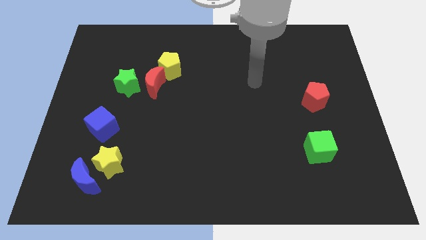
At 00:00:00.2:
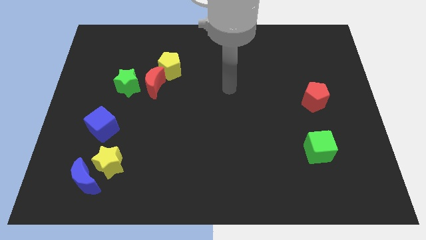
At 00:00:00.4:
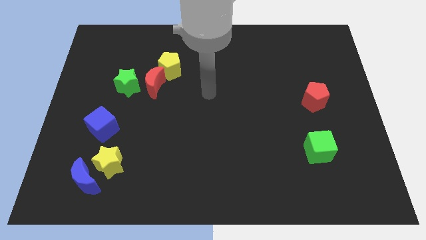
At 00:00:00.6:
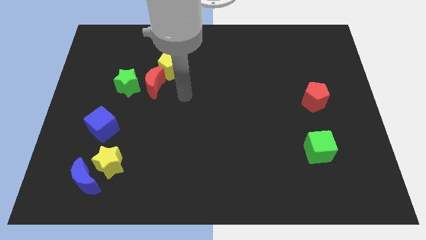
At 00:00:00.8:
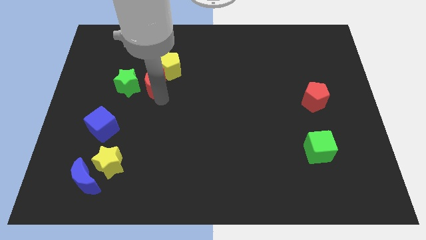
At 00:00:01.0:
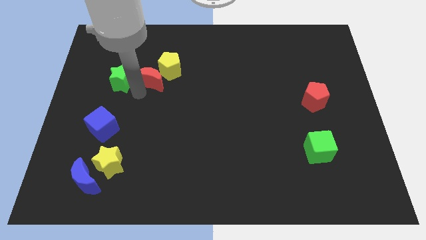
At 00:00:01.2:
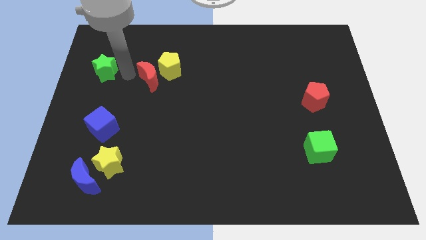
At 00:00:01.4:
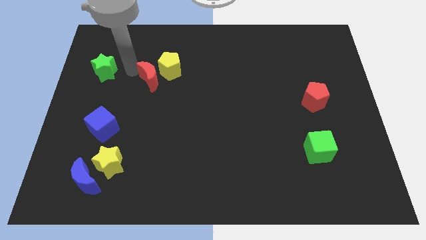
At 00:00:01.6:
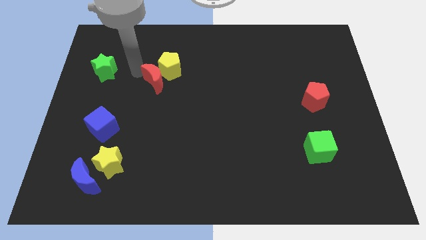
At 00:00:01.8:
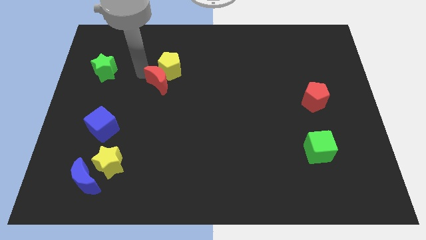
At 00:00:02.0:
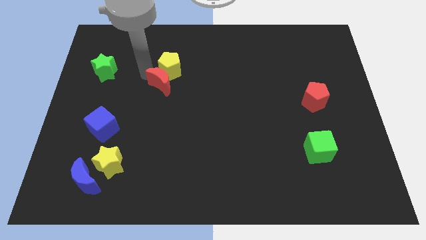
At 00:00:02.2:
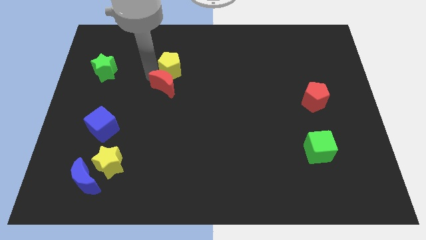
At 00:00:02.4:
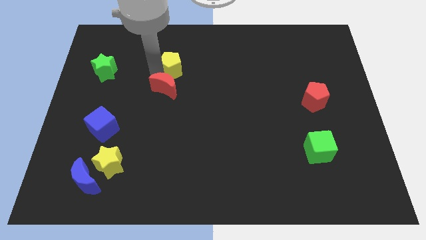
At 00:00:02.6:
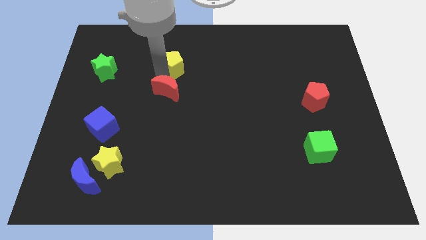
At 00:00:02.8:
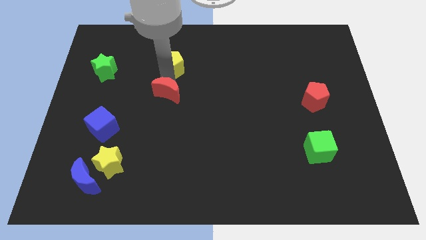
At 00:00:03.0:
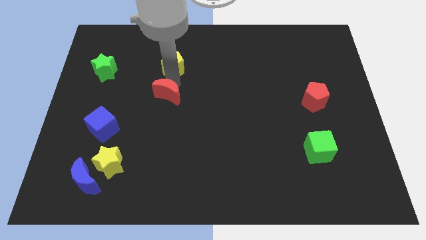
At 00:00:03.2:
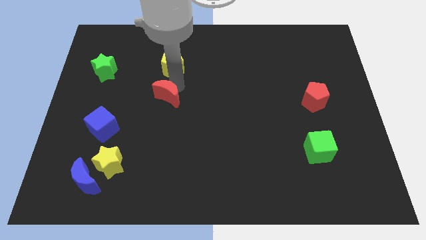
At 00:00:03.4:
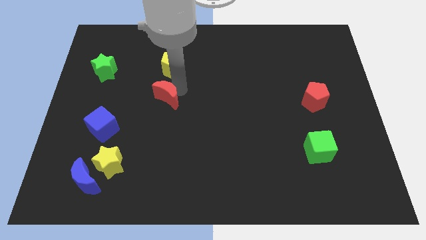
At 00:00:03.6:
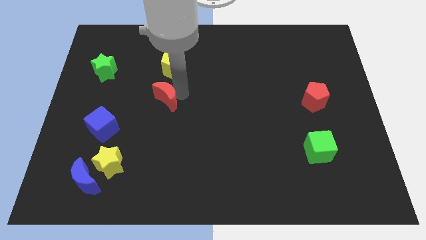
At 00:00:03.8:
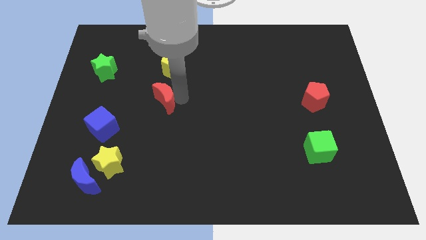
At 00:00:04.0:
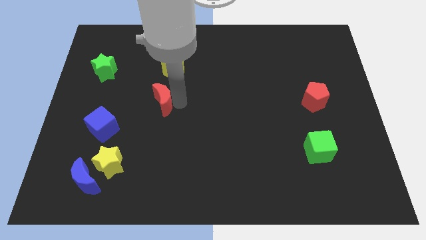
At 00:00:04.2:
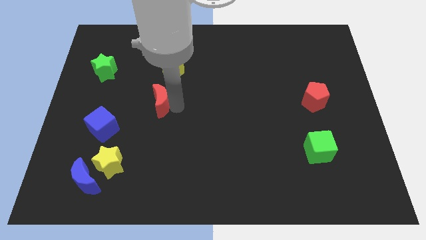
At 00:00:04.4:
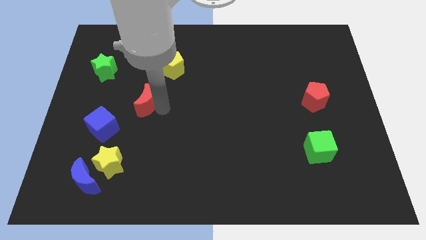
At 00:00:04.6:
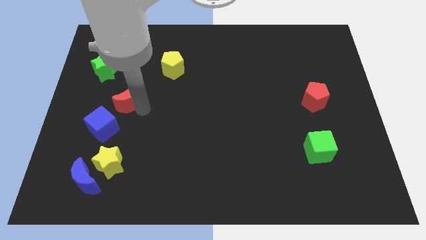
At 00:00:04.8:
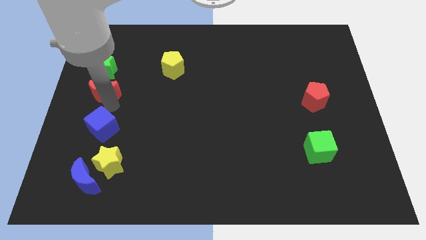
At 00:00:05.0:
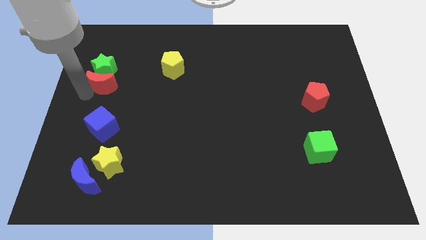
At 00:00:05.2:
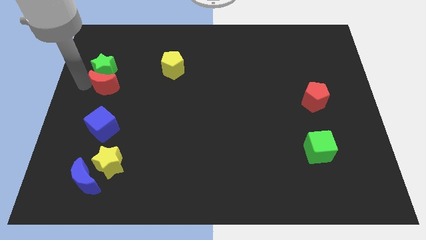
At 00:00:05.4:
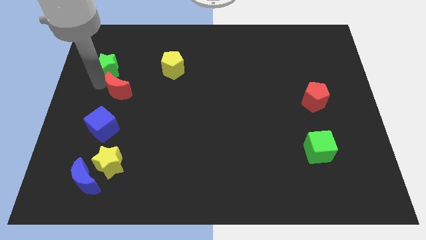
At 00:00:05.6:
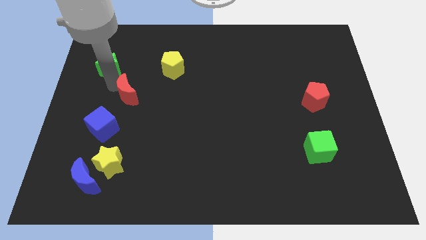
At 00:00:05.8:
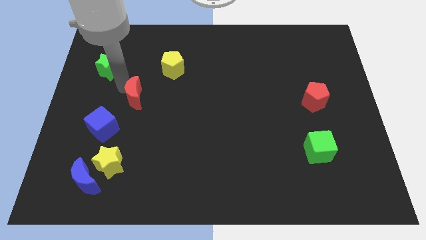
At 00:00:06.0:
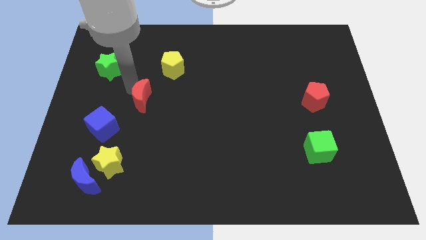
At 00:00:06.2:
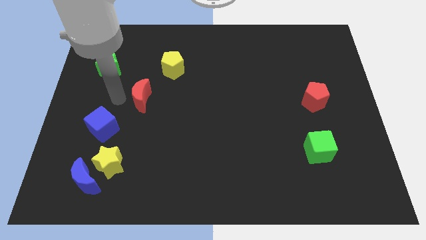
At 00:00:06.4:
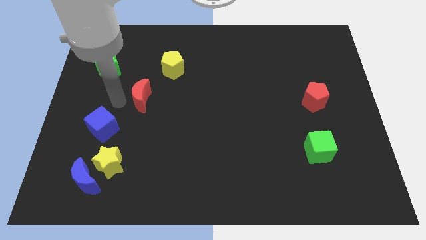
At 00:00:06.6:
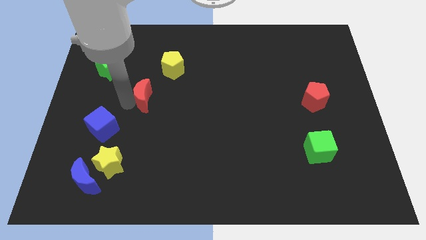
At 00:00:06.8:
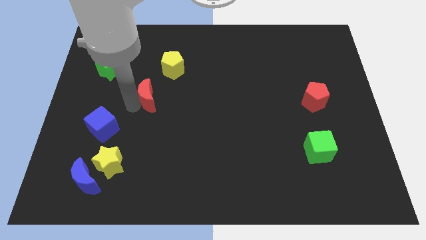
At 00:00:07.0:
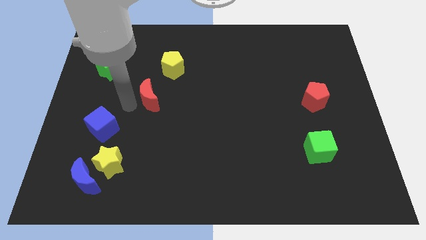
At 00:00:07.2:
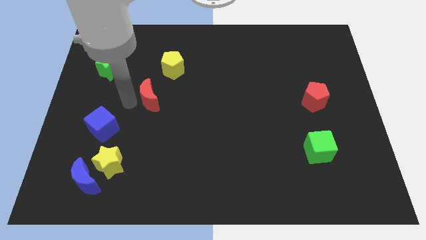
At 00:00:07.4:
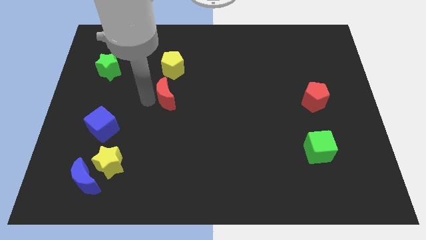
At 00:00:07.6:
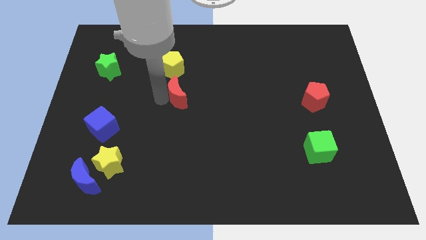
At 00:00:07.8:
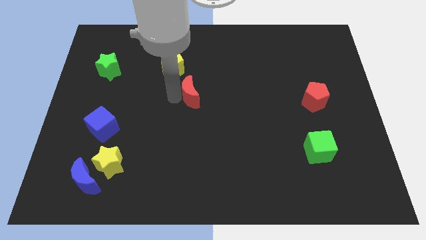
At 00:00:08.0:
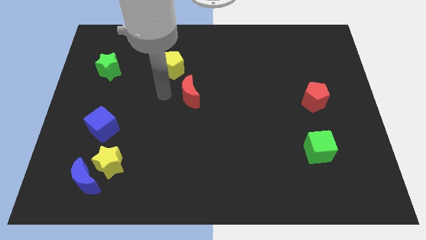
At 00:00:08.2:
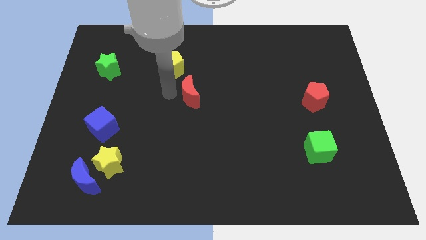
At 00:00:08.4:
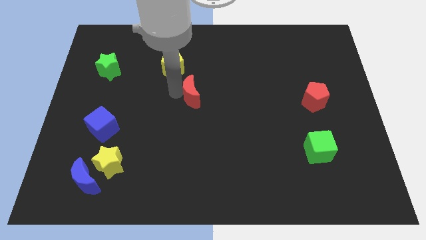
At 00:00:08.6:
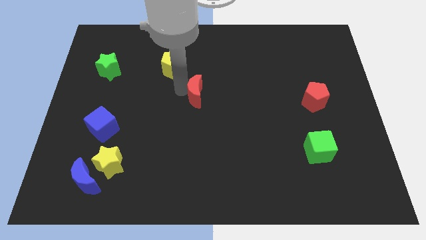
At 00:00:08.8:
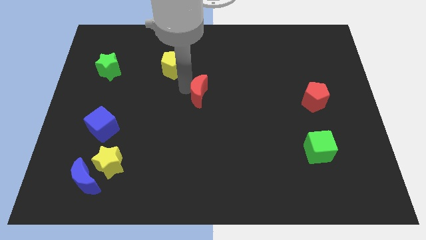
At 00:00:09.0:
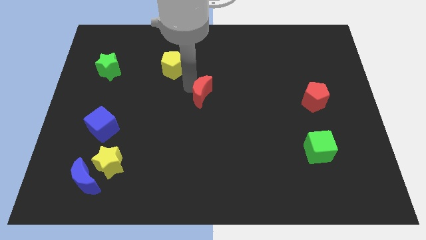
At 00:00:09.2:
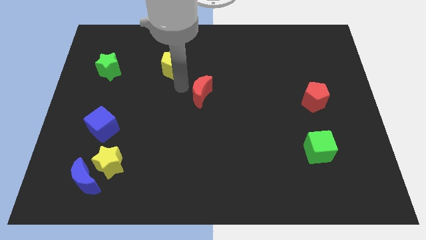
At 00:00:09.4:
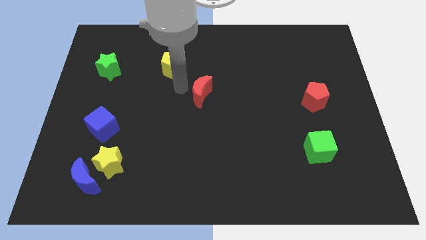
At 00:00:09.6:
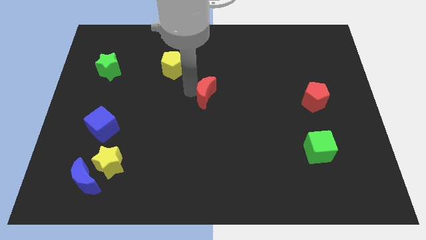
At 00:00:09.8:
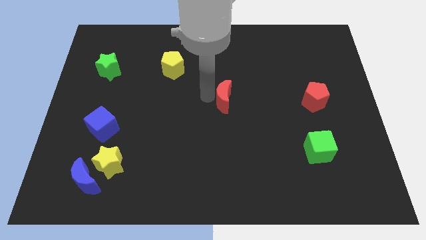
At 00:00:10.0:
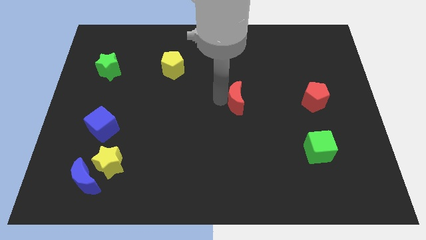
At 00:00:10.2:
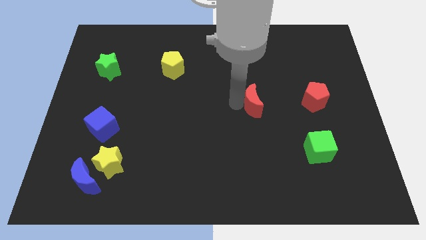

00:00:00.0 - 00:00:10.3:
put the red moon left of the red pentagon

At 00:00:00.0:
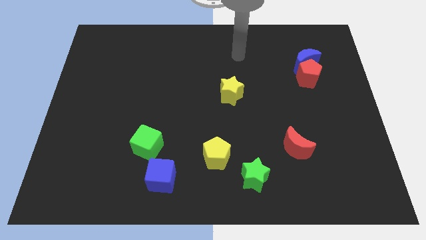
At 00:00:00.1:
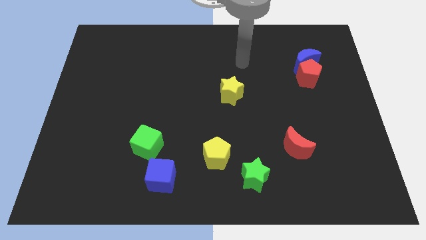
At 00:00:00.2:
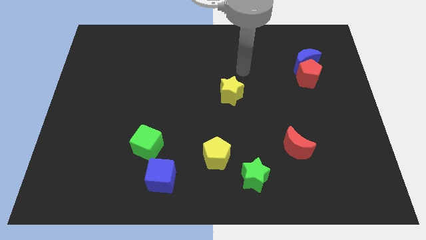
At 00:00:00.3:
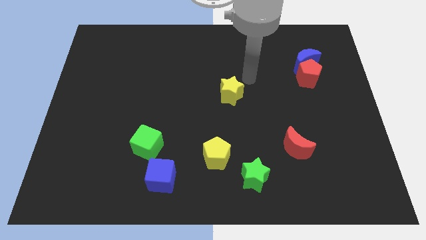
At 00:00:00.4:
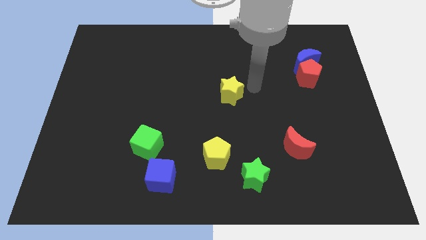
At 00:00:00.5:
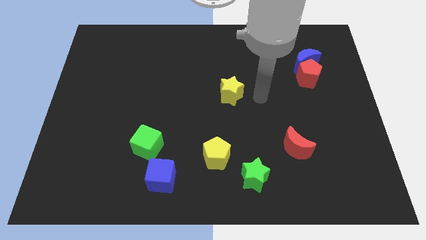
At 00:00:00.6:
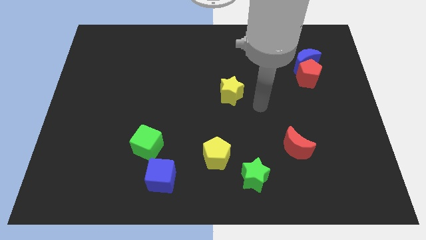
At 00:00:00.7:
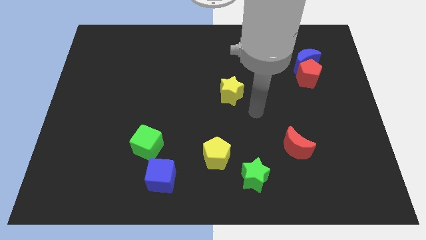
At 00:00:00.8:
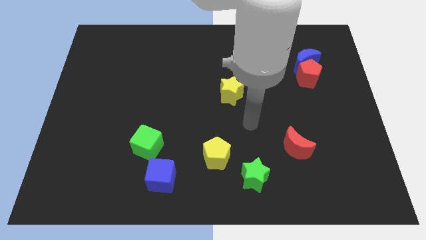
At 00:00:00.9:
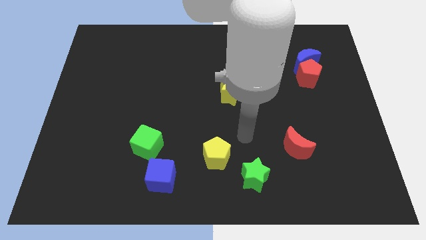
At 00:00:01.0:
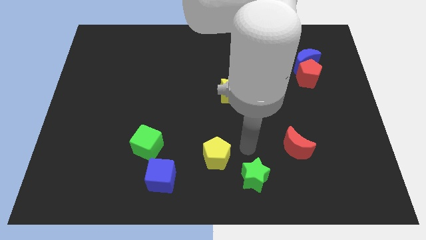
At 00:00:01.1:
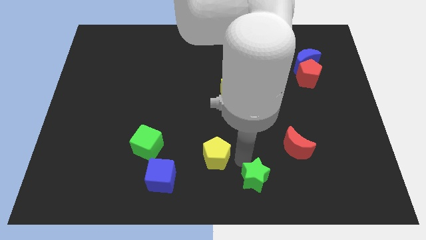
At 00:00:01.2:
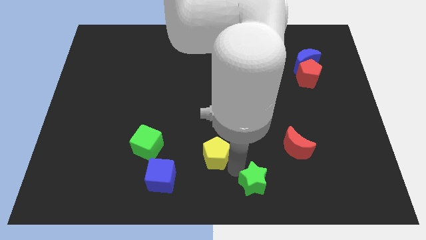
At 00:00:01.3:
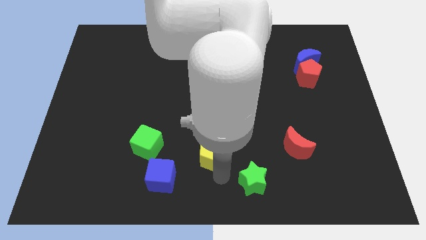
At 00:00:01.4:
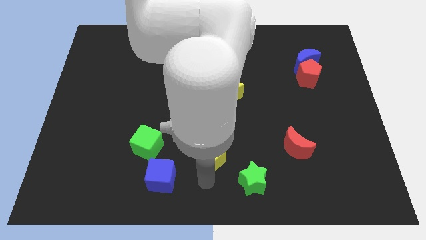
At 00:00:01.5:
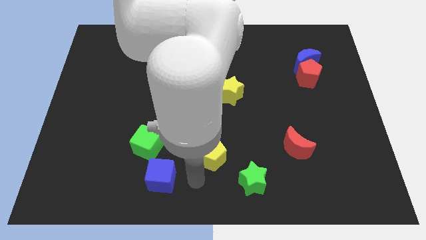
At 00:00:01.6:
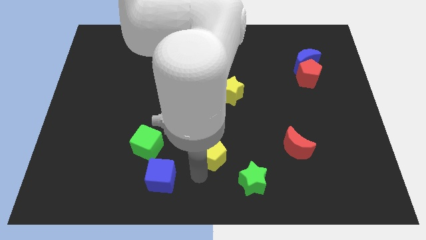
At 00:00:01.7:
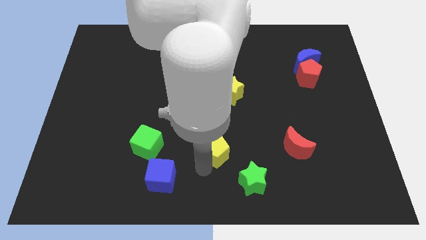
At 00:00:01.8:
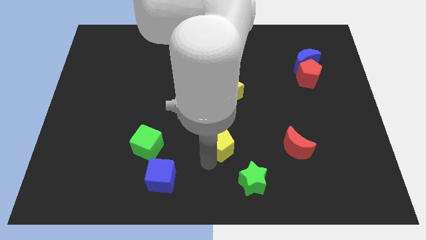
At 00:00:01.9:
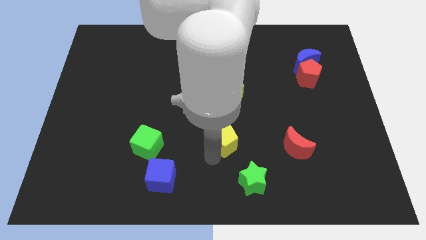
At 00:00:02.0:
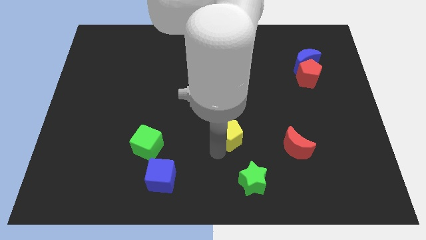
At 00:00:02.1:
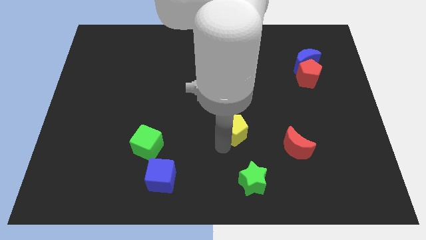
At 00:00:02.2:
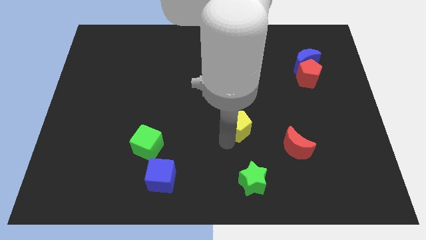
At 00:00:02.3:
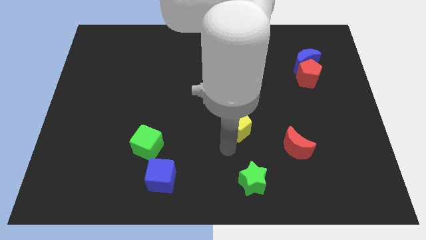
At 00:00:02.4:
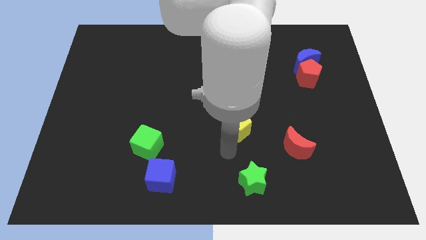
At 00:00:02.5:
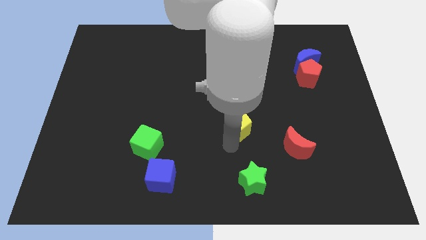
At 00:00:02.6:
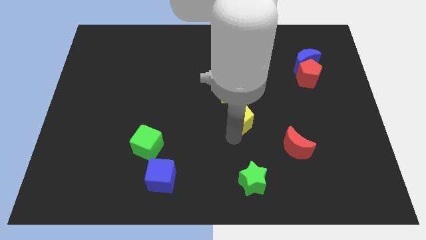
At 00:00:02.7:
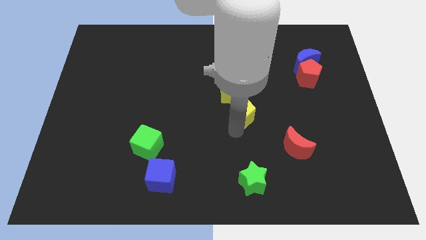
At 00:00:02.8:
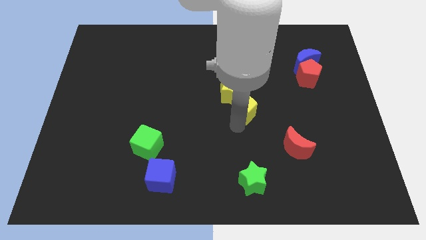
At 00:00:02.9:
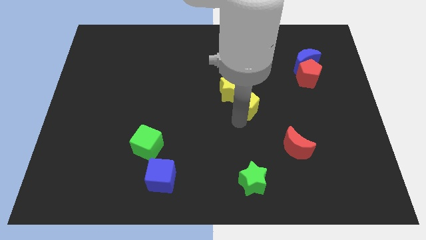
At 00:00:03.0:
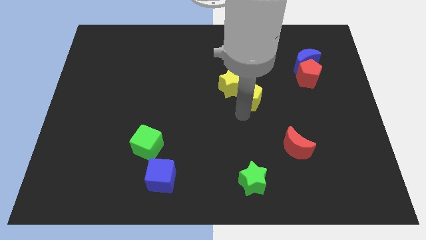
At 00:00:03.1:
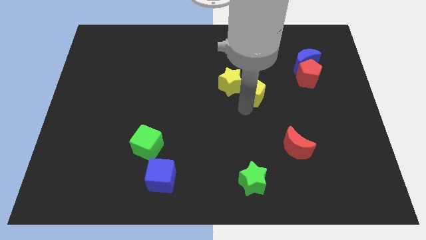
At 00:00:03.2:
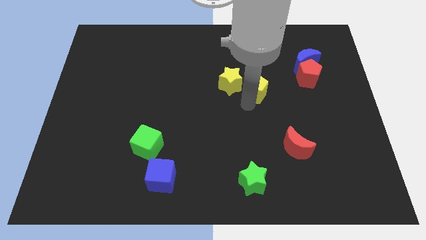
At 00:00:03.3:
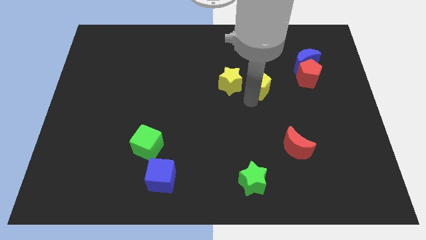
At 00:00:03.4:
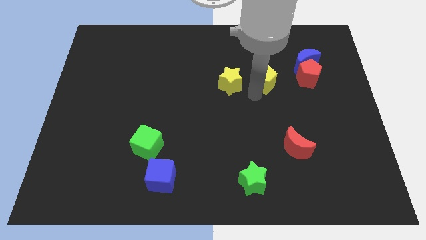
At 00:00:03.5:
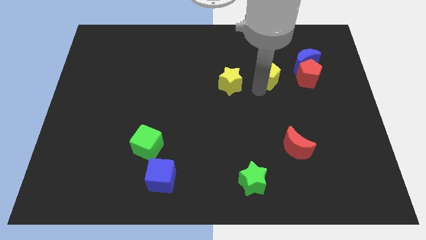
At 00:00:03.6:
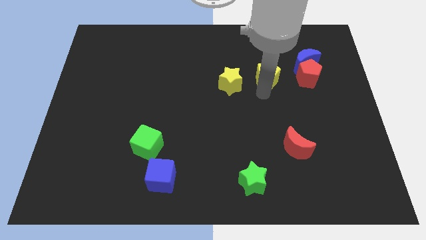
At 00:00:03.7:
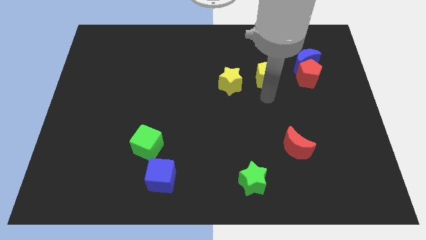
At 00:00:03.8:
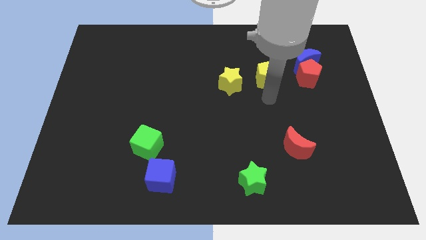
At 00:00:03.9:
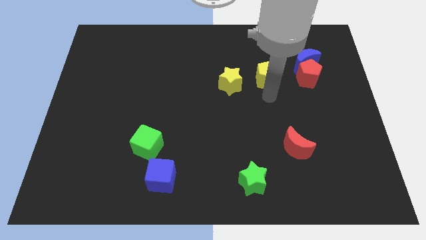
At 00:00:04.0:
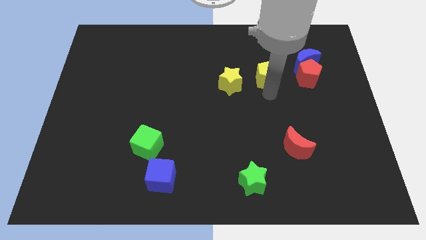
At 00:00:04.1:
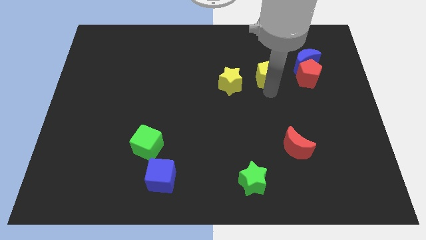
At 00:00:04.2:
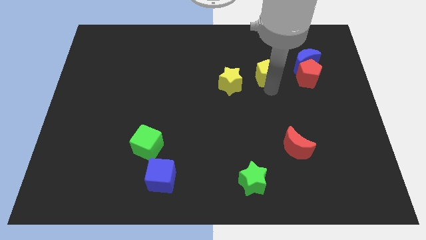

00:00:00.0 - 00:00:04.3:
put the yellow pentagon just left of the blue moon
